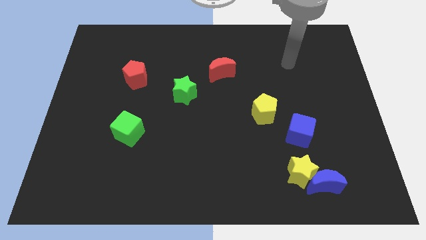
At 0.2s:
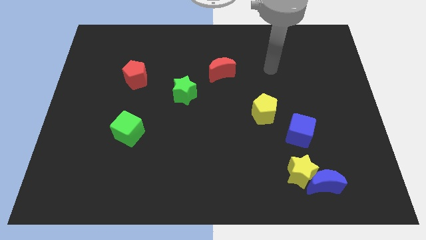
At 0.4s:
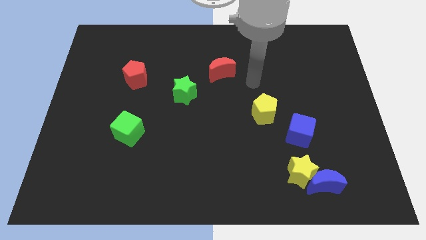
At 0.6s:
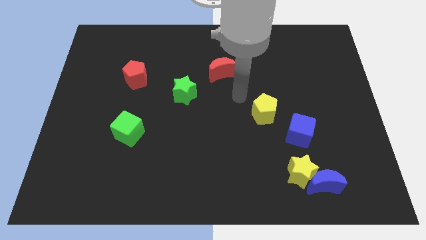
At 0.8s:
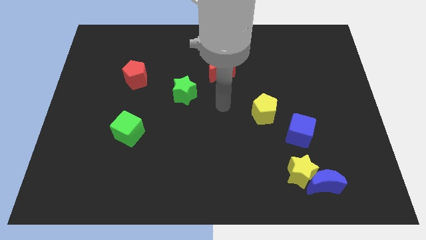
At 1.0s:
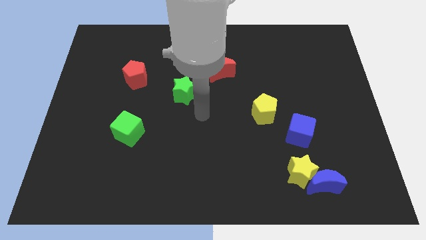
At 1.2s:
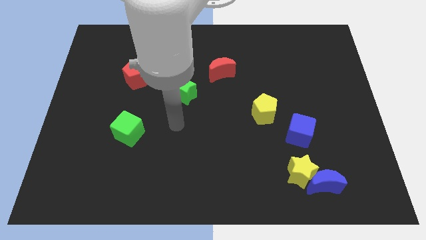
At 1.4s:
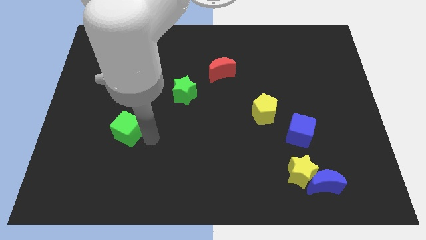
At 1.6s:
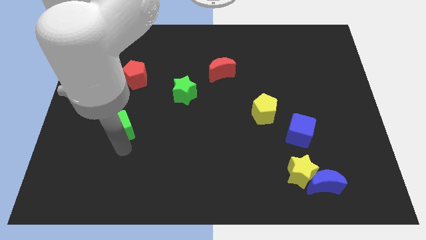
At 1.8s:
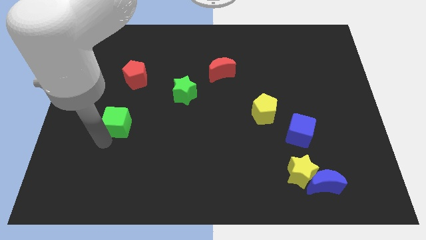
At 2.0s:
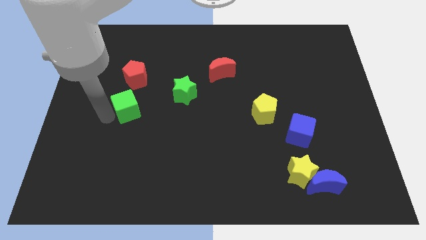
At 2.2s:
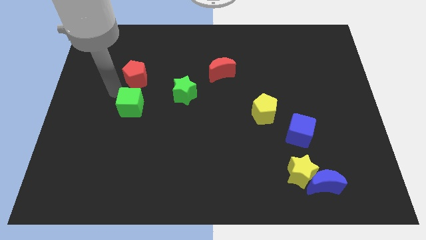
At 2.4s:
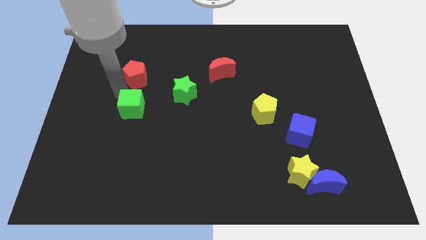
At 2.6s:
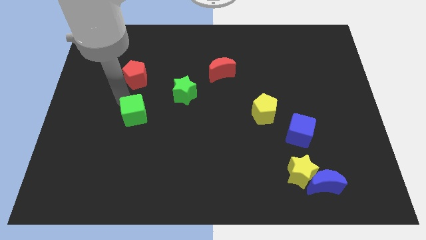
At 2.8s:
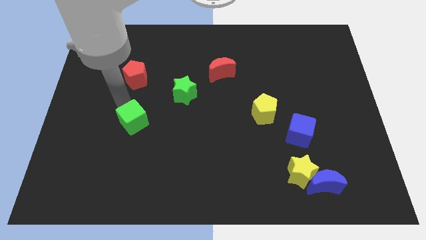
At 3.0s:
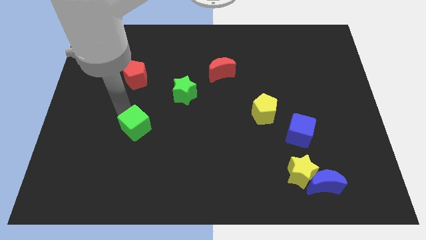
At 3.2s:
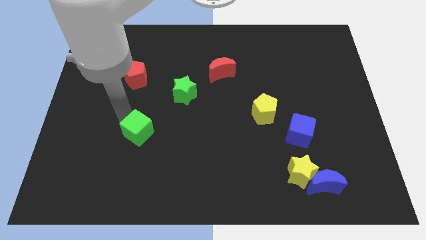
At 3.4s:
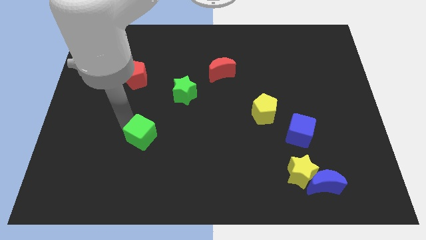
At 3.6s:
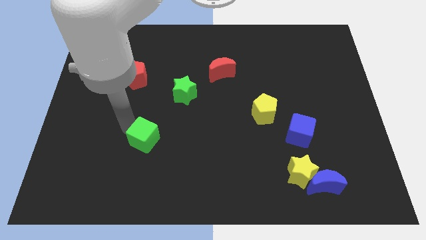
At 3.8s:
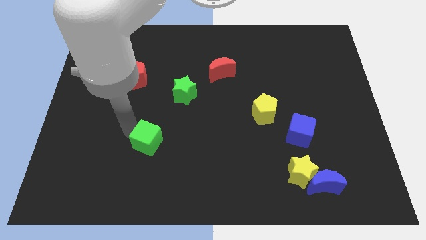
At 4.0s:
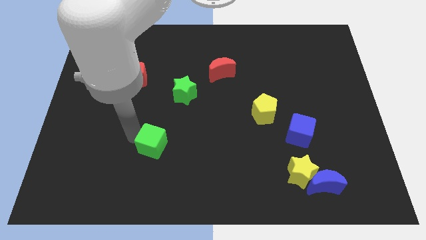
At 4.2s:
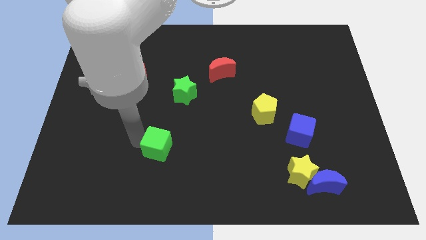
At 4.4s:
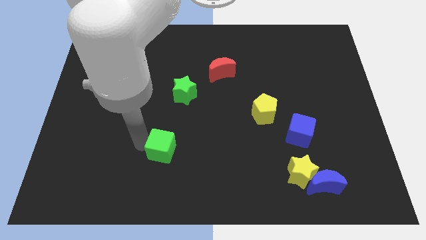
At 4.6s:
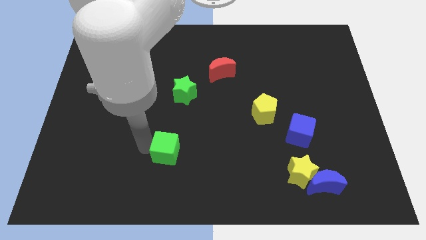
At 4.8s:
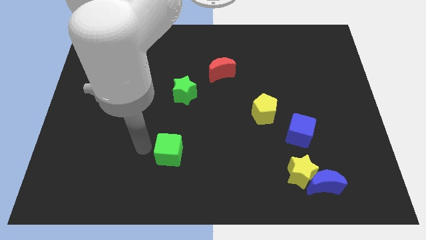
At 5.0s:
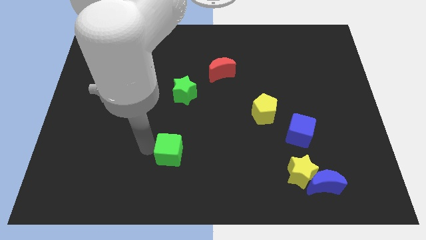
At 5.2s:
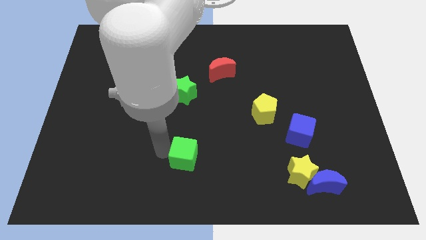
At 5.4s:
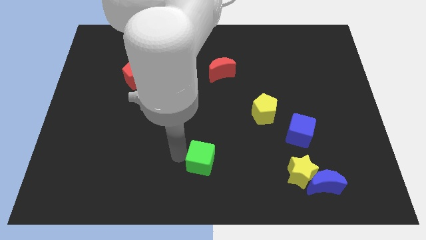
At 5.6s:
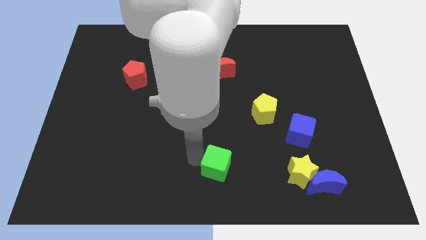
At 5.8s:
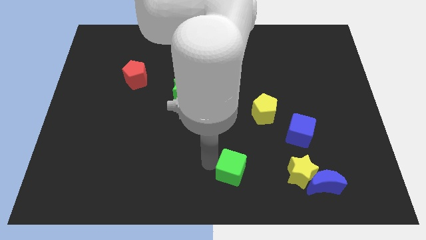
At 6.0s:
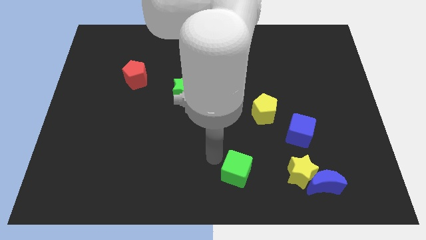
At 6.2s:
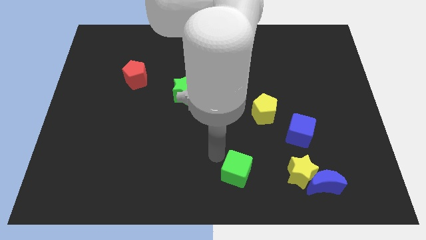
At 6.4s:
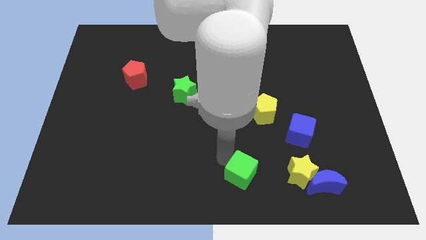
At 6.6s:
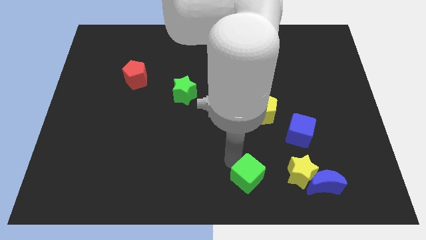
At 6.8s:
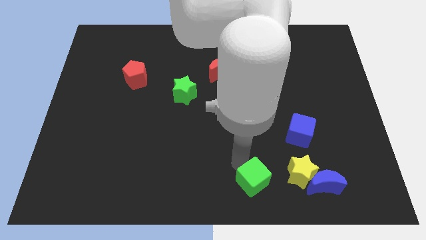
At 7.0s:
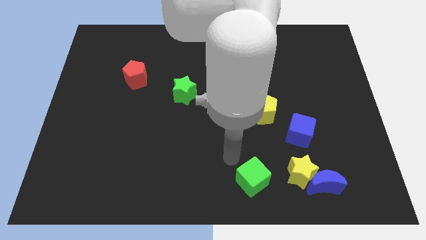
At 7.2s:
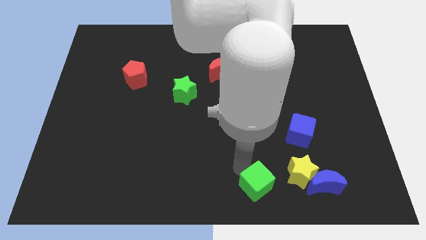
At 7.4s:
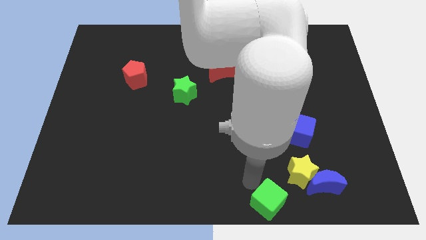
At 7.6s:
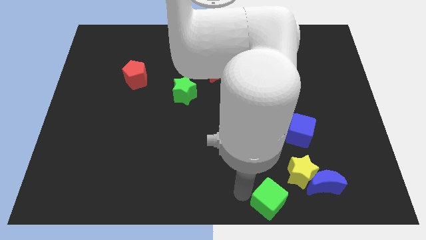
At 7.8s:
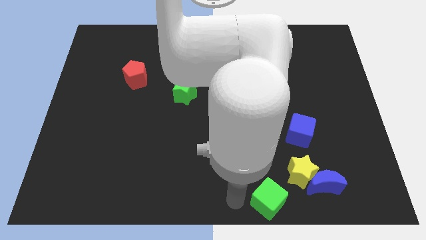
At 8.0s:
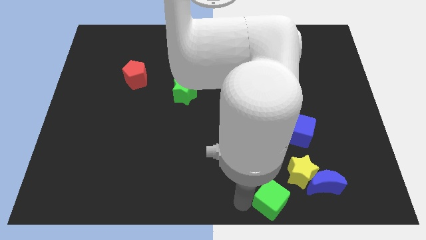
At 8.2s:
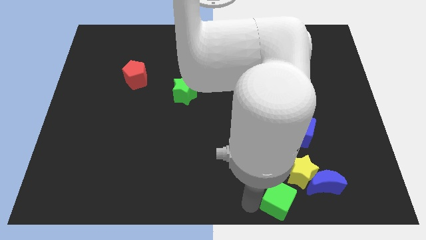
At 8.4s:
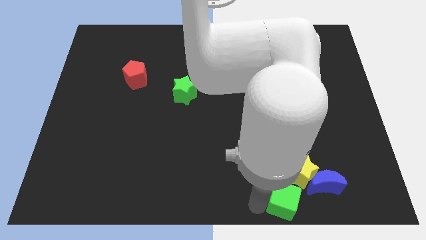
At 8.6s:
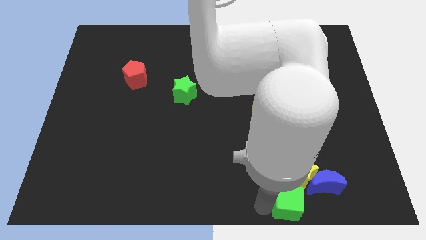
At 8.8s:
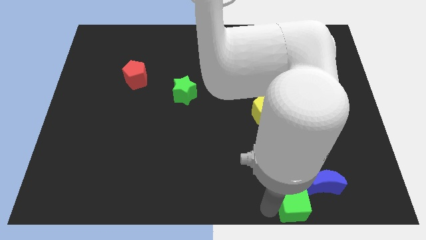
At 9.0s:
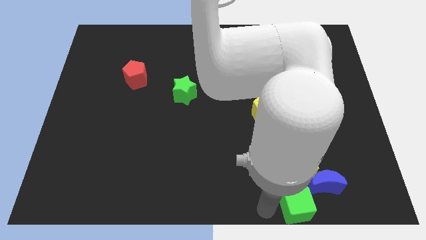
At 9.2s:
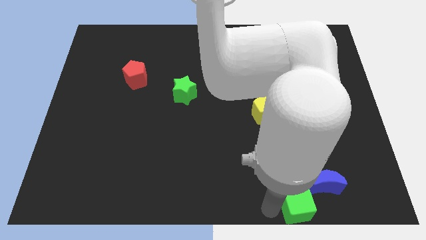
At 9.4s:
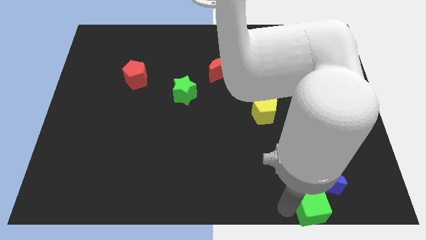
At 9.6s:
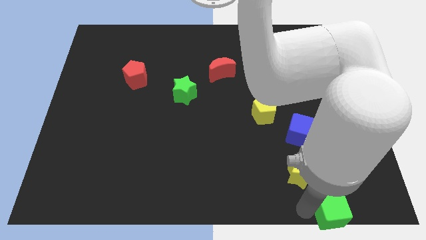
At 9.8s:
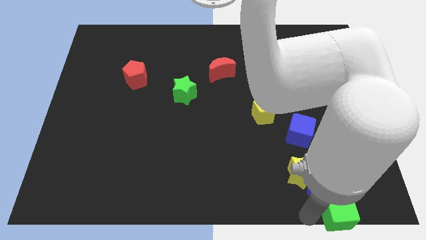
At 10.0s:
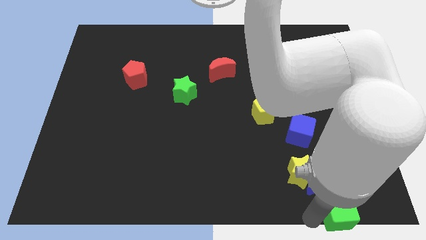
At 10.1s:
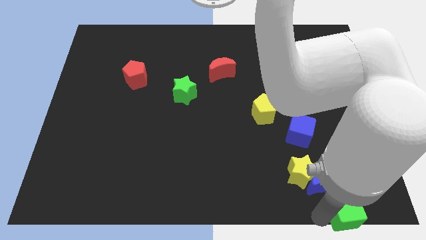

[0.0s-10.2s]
move the green cube to the bottom right corner

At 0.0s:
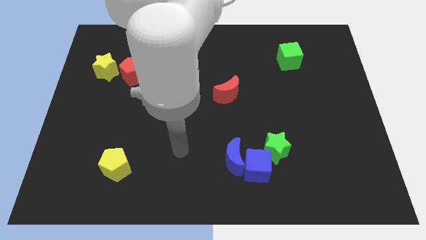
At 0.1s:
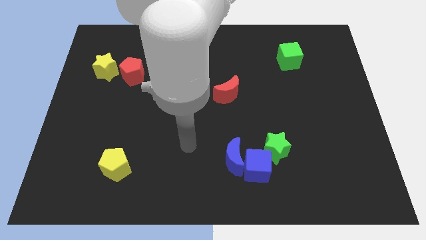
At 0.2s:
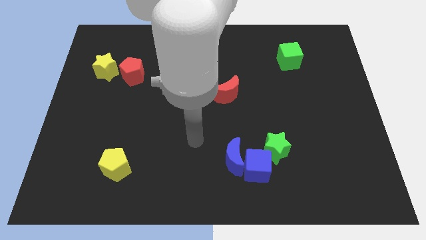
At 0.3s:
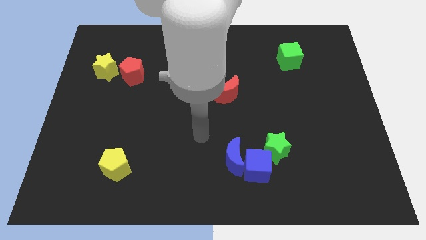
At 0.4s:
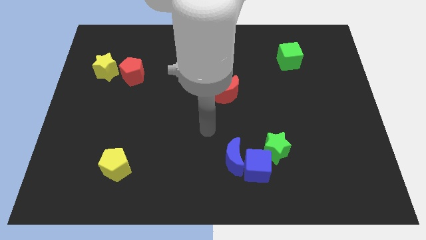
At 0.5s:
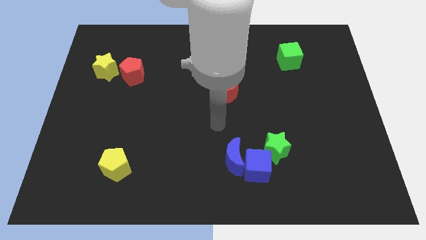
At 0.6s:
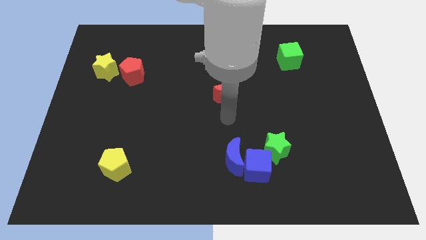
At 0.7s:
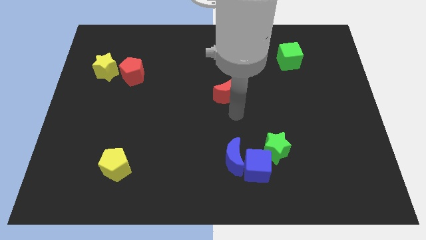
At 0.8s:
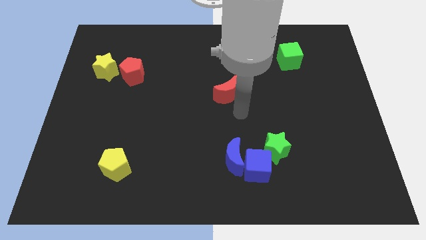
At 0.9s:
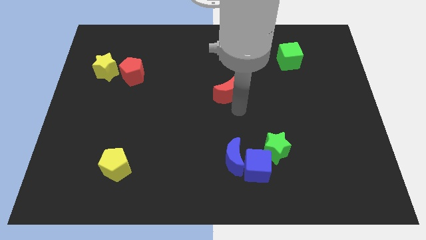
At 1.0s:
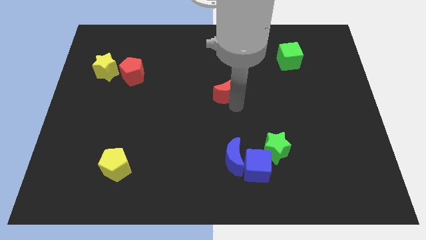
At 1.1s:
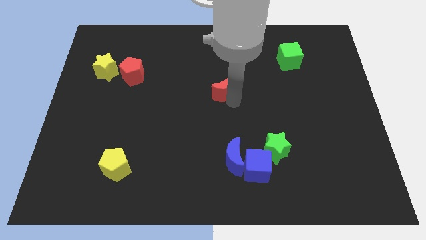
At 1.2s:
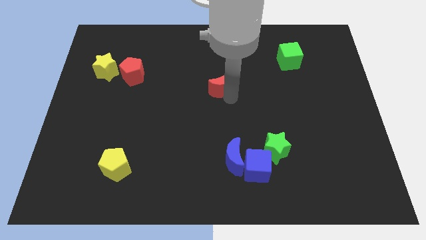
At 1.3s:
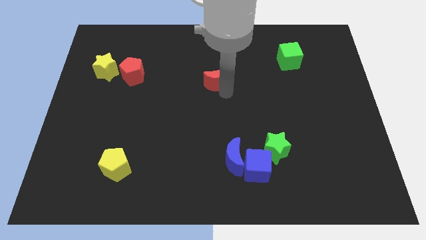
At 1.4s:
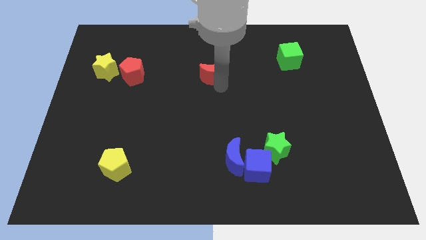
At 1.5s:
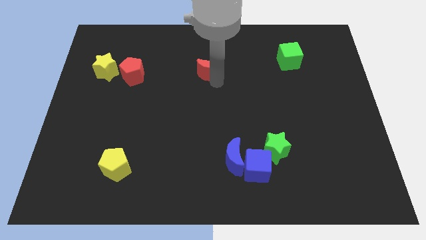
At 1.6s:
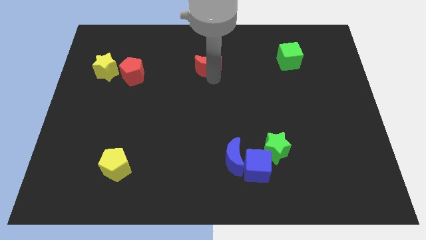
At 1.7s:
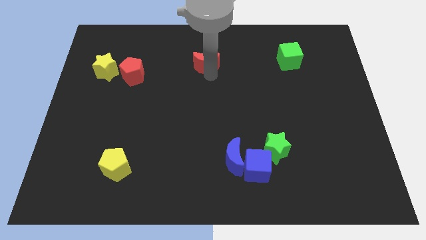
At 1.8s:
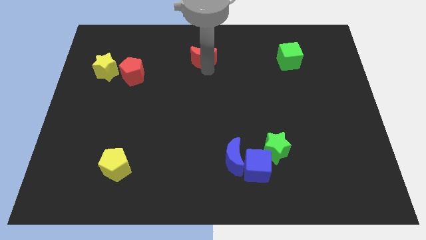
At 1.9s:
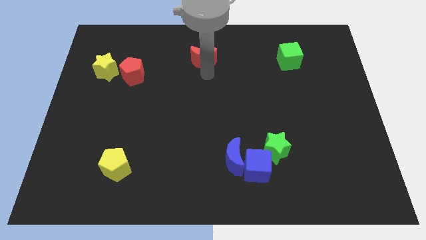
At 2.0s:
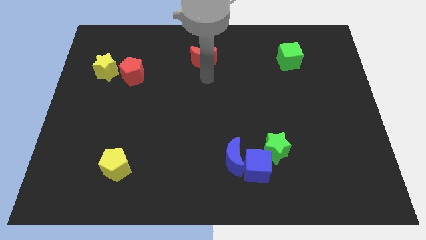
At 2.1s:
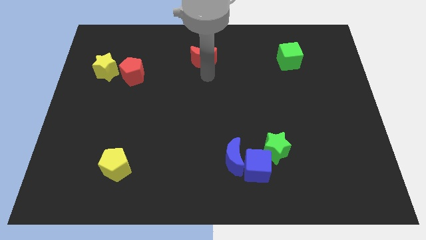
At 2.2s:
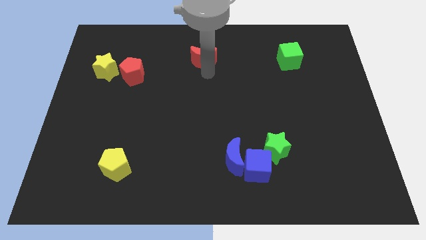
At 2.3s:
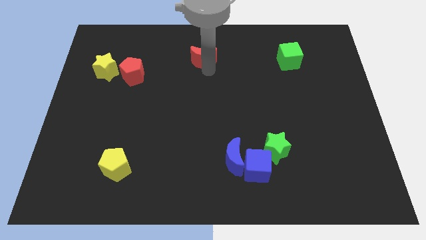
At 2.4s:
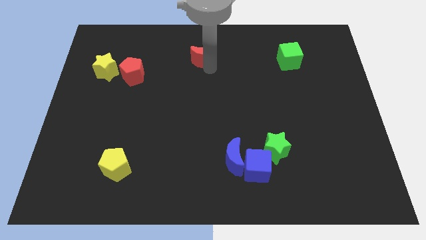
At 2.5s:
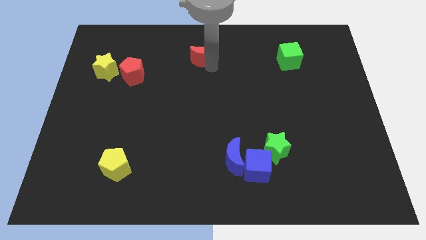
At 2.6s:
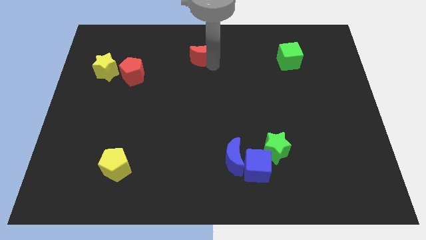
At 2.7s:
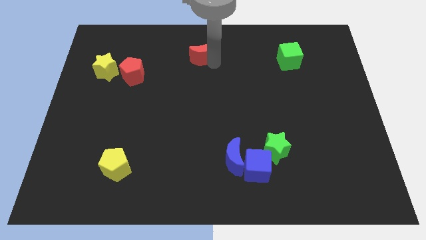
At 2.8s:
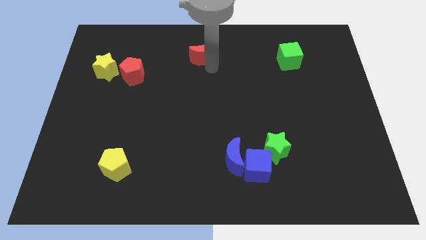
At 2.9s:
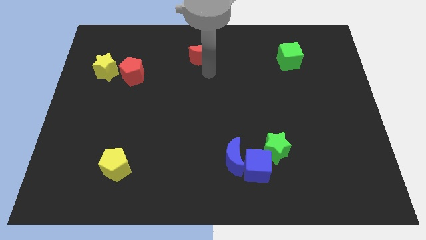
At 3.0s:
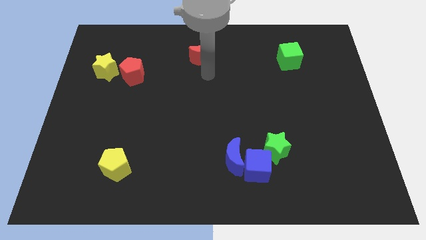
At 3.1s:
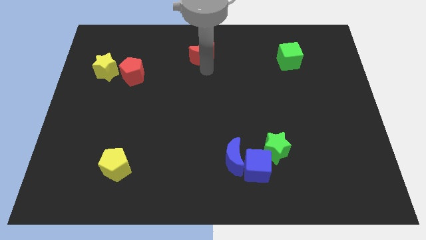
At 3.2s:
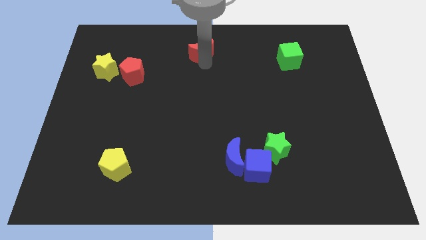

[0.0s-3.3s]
put the red moon to the top side
